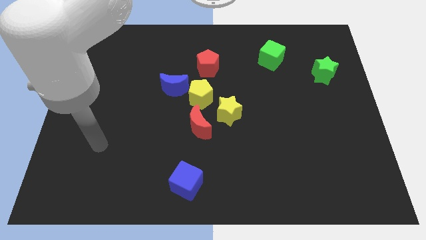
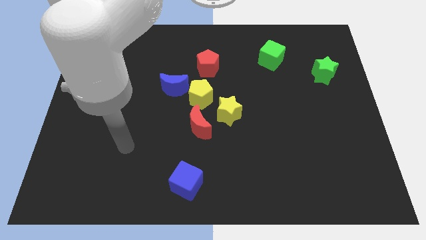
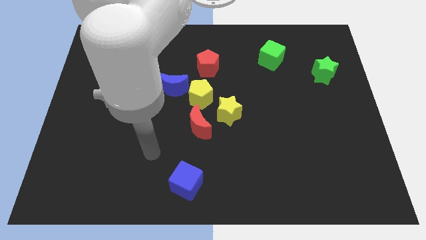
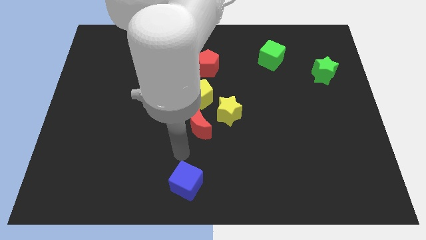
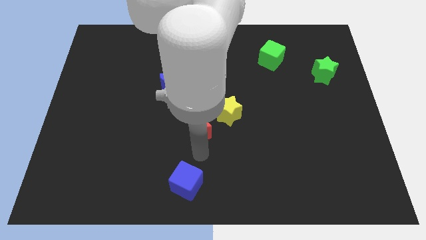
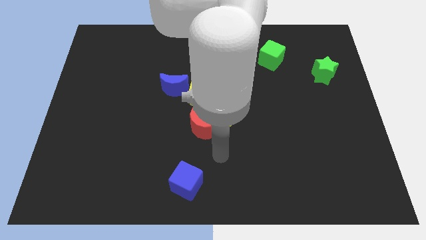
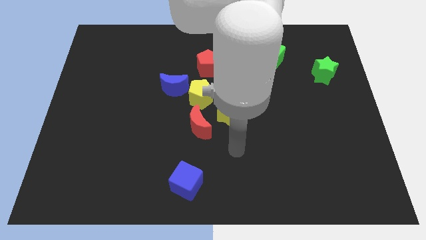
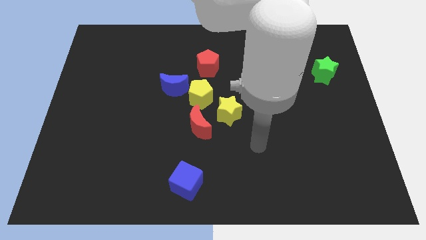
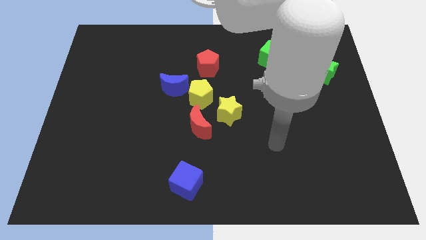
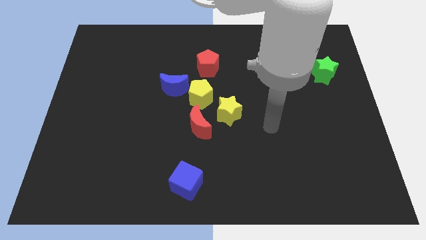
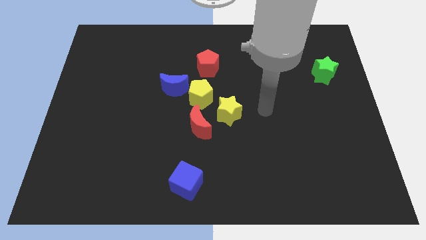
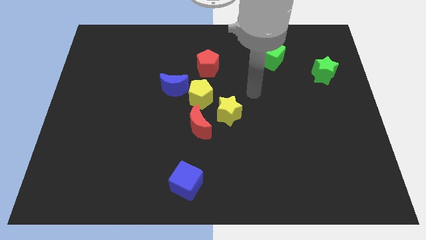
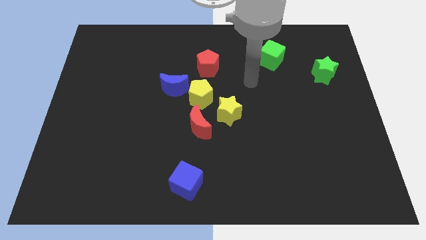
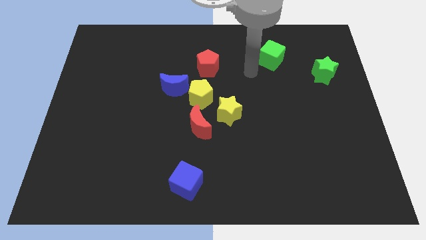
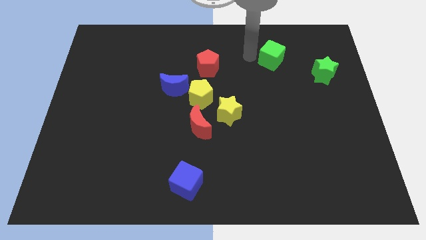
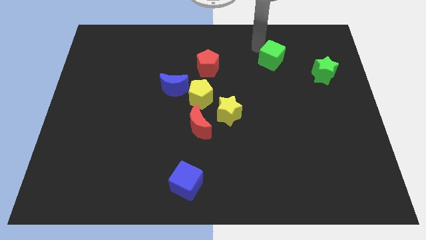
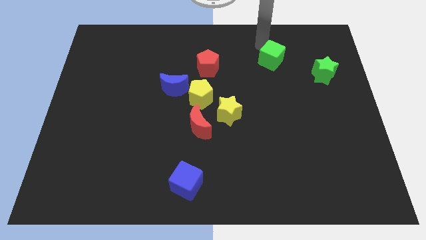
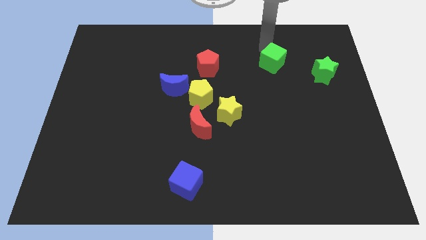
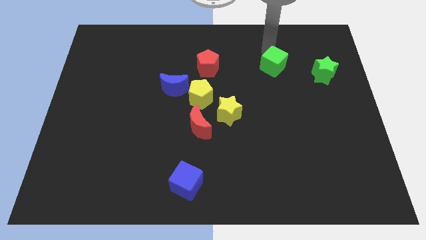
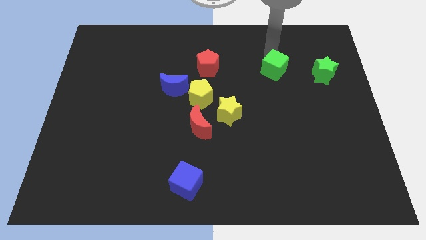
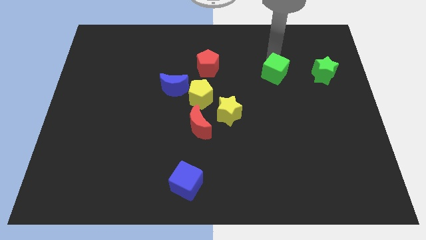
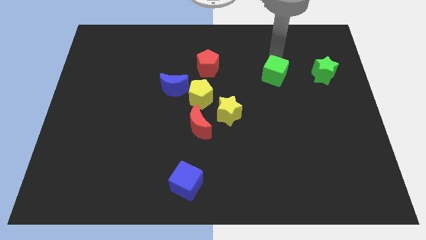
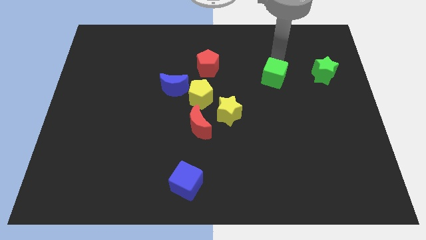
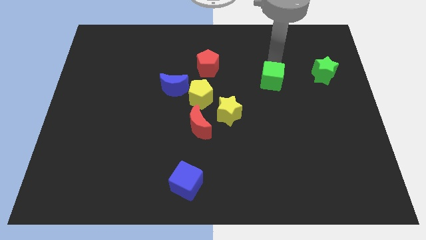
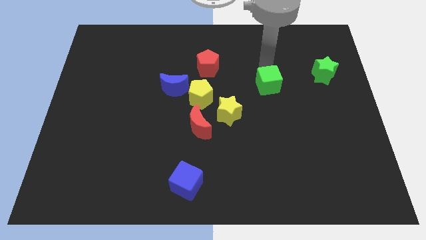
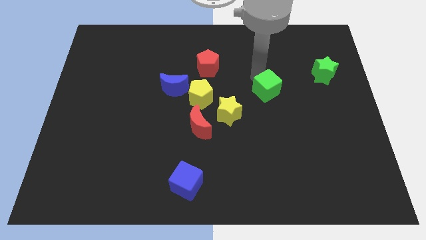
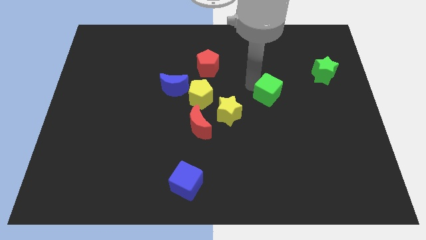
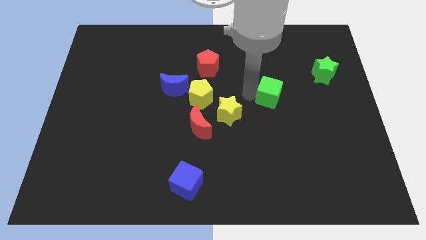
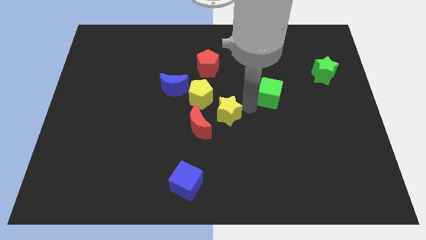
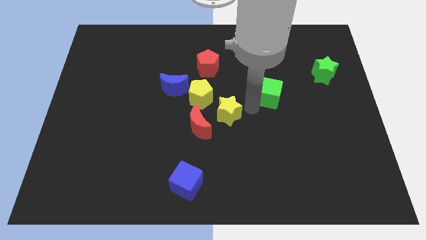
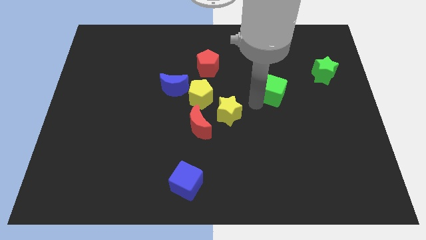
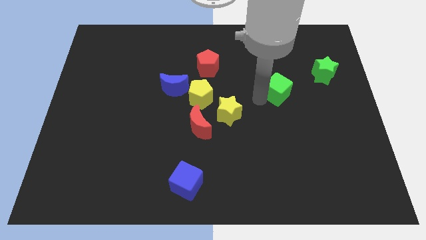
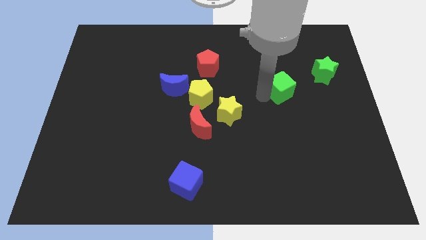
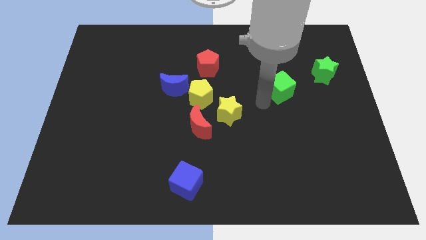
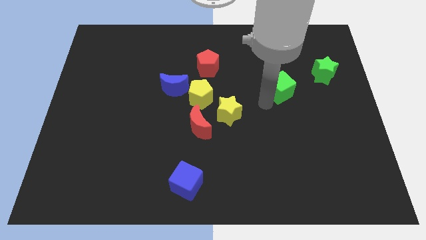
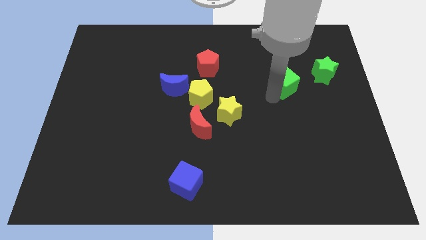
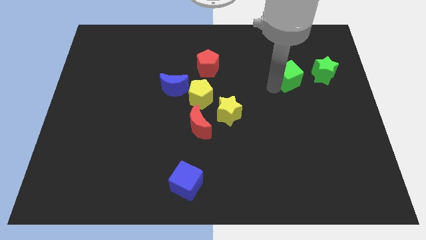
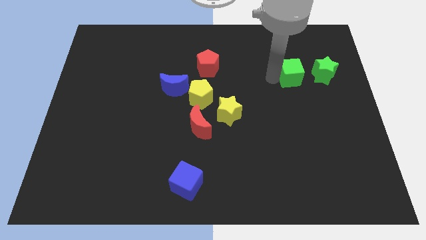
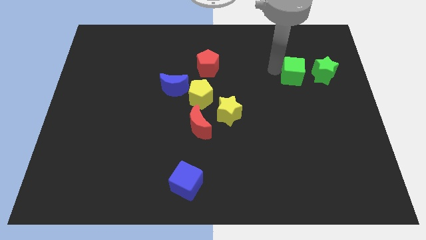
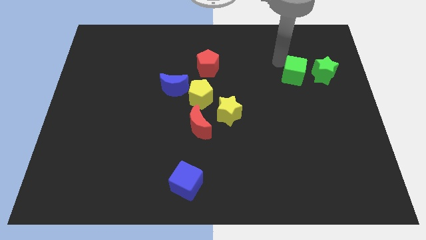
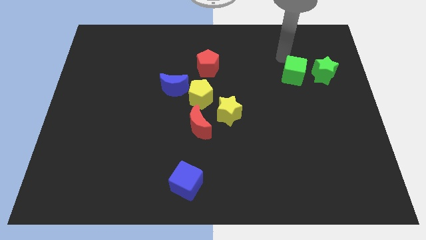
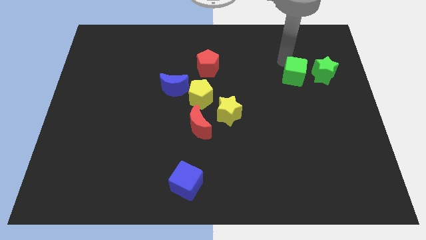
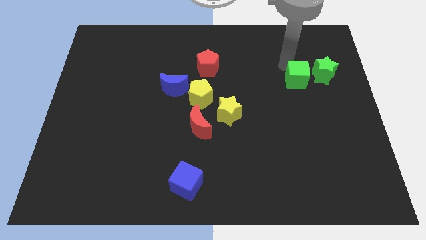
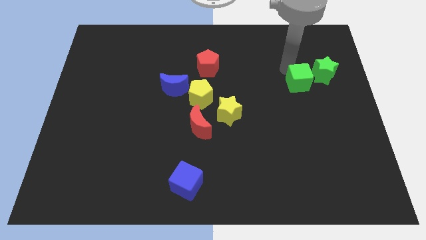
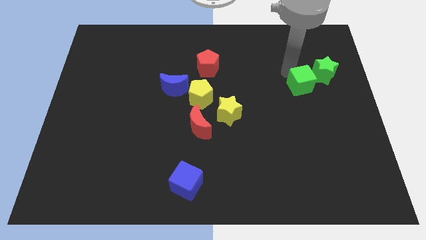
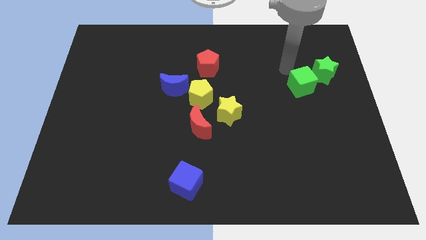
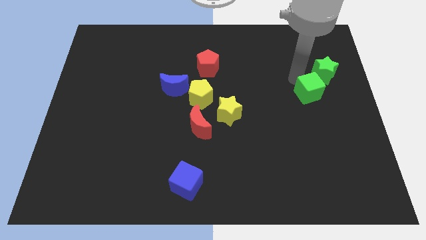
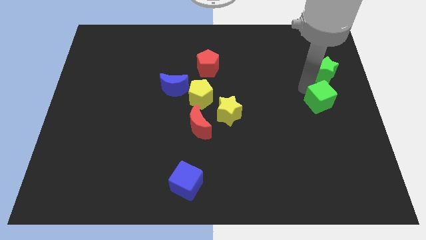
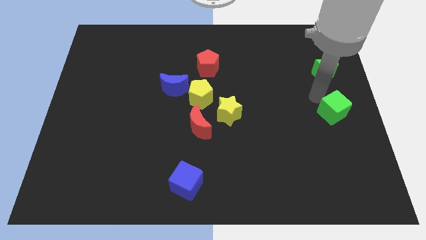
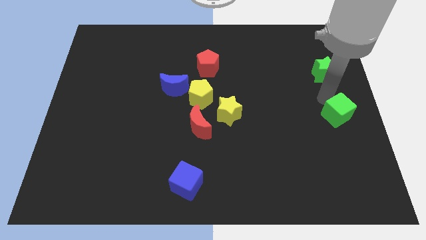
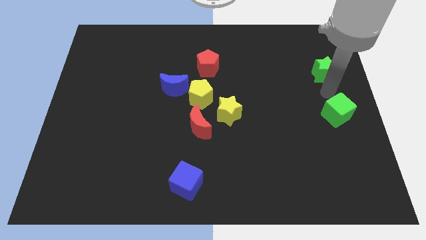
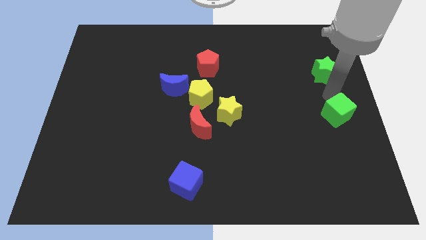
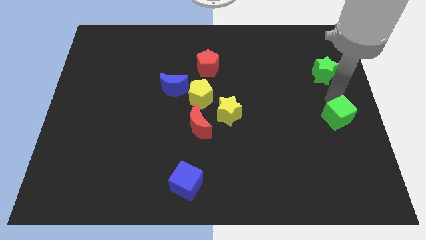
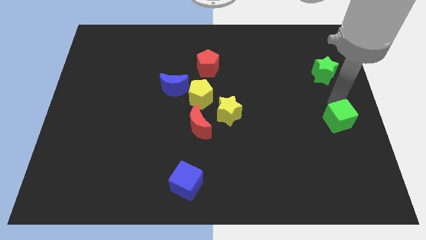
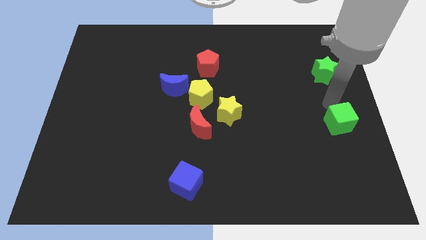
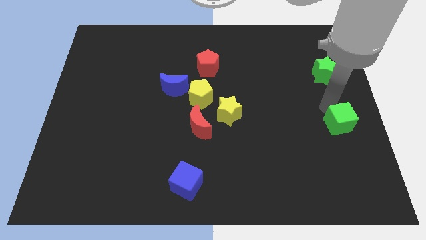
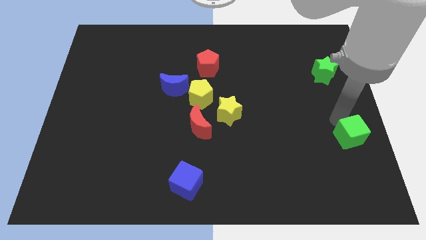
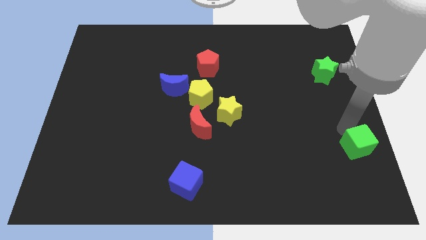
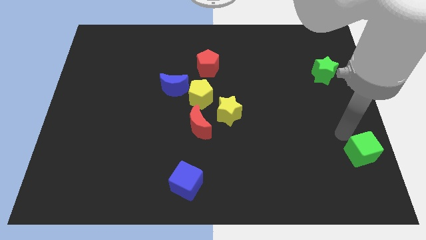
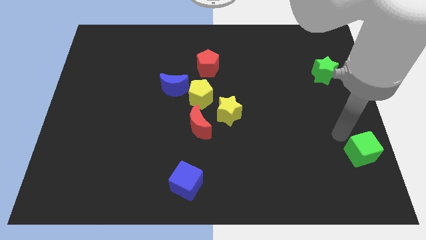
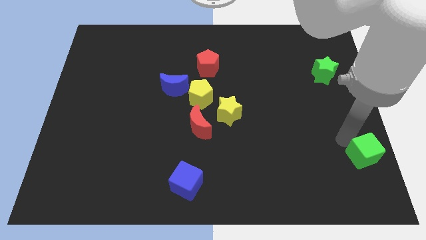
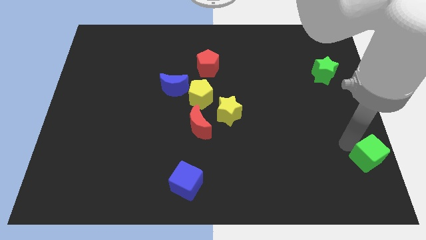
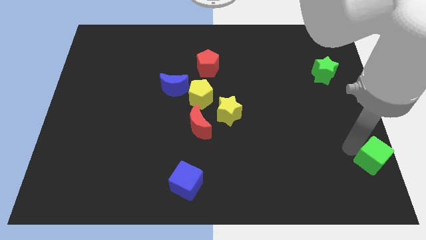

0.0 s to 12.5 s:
move the green cube to the bottom right corner
